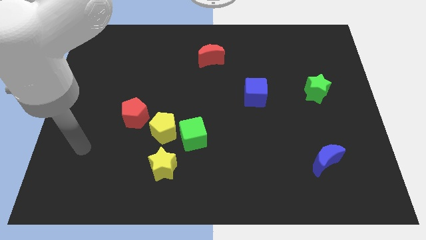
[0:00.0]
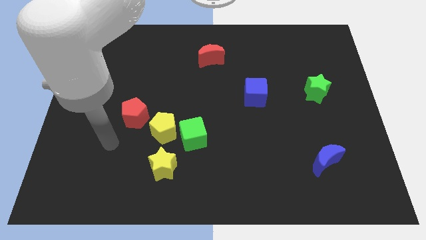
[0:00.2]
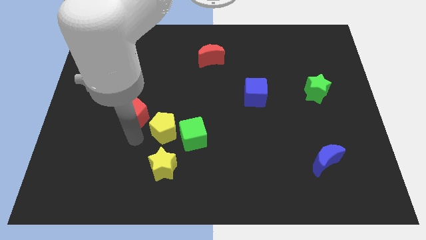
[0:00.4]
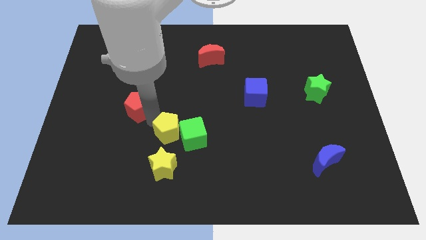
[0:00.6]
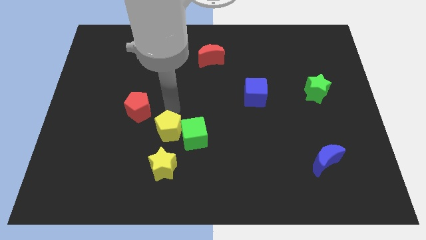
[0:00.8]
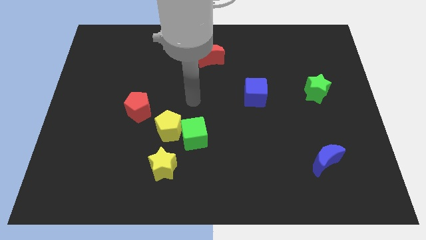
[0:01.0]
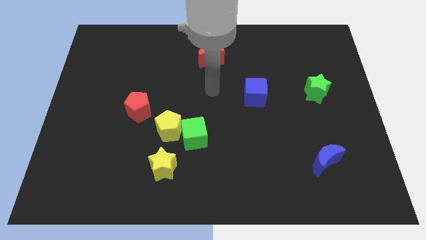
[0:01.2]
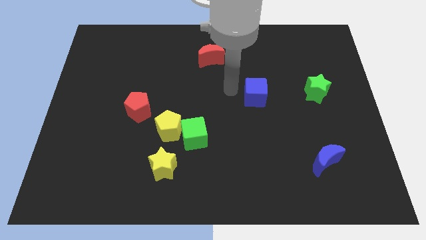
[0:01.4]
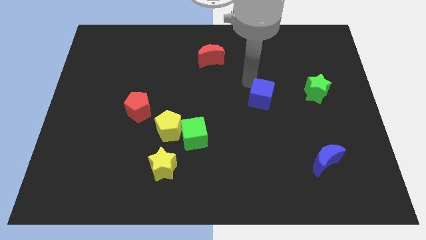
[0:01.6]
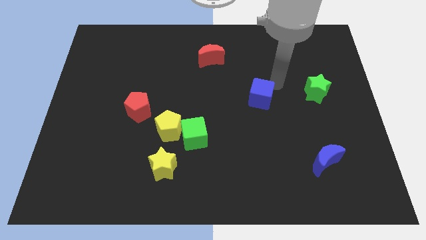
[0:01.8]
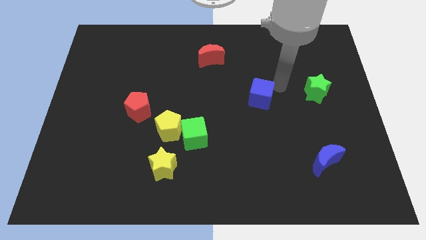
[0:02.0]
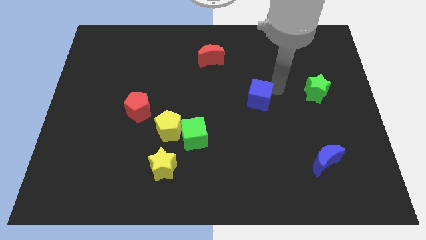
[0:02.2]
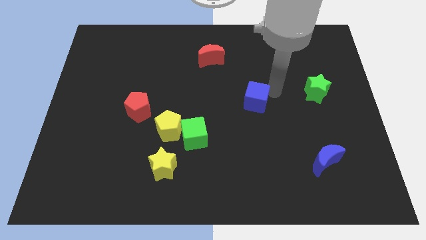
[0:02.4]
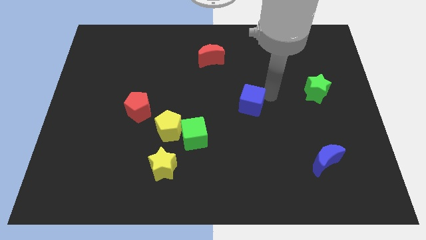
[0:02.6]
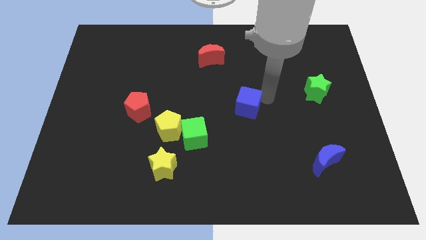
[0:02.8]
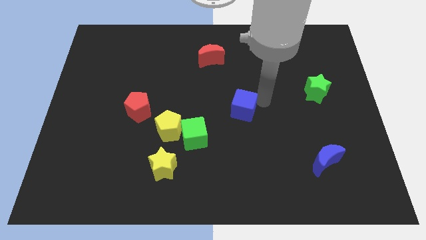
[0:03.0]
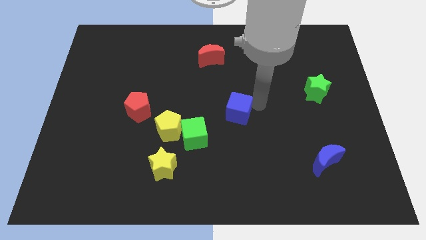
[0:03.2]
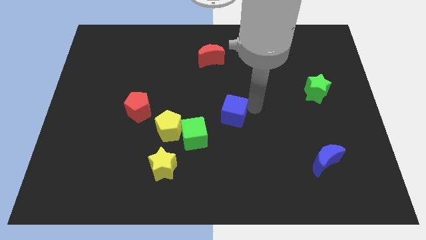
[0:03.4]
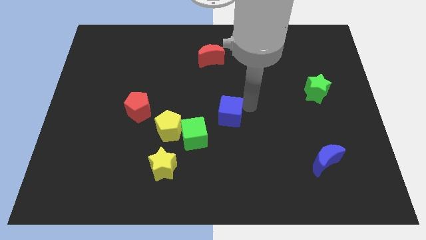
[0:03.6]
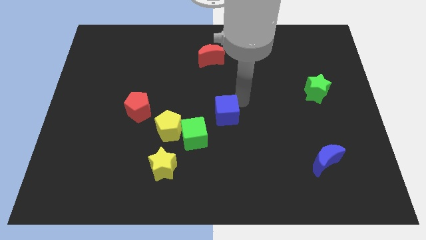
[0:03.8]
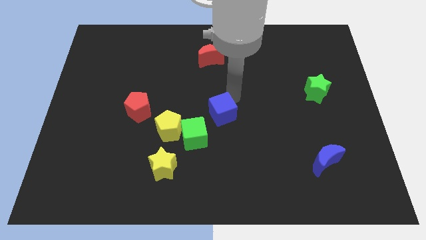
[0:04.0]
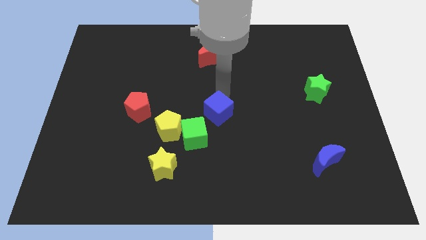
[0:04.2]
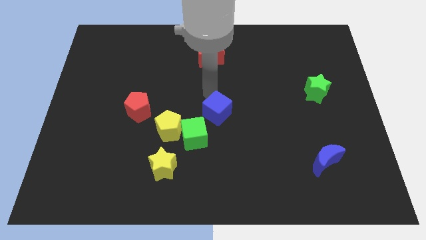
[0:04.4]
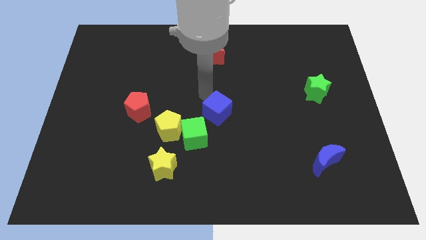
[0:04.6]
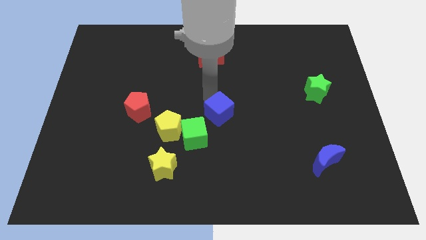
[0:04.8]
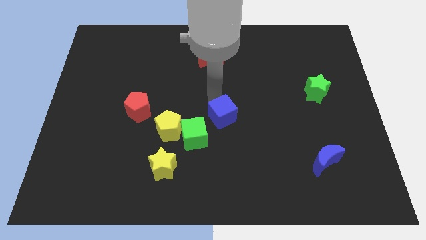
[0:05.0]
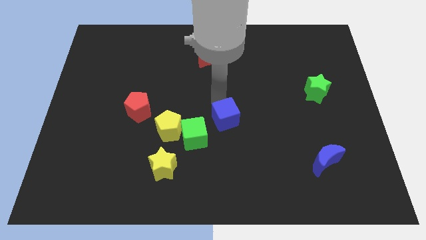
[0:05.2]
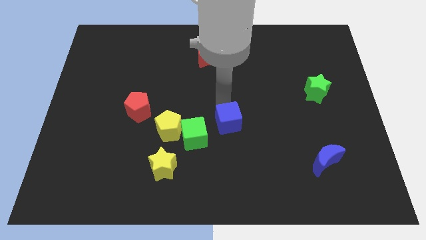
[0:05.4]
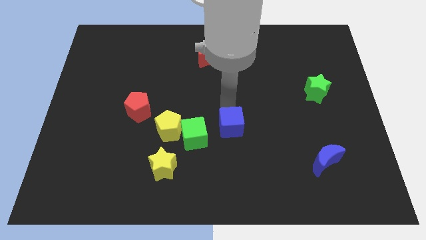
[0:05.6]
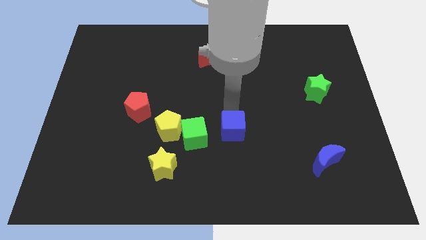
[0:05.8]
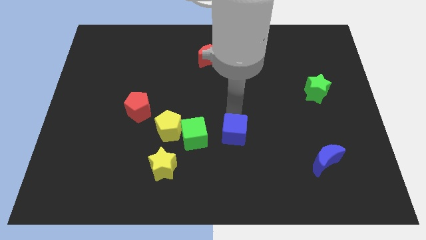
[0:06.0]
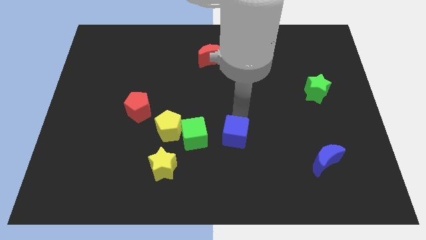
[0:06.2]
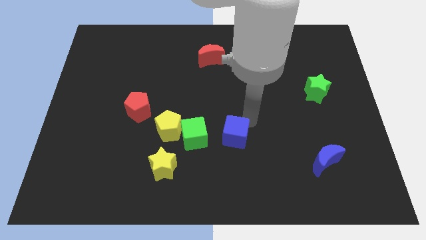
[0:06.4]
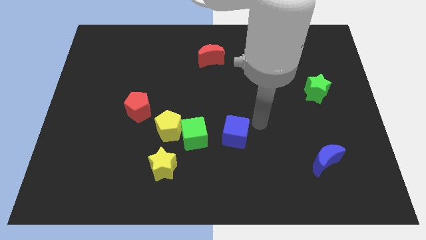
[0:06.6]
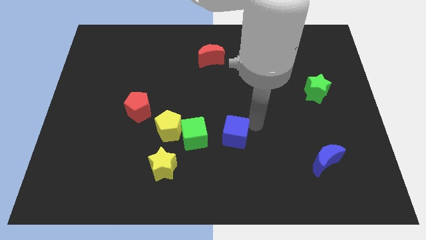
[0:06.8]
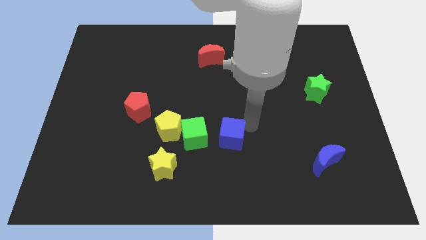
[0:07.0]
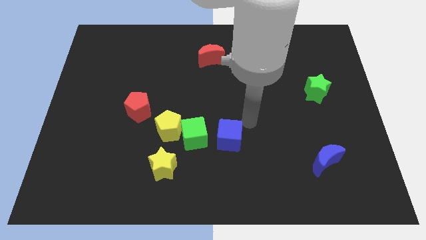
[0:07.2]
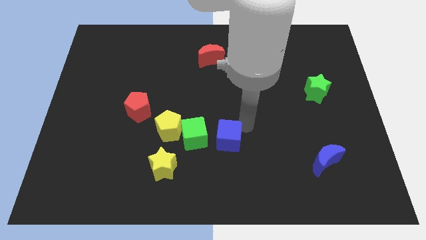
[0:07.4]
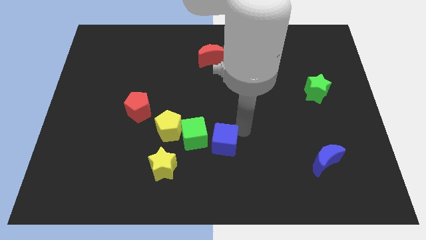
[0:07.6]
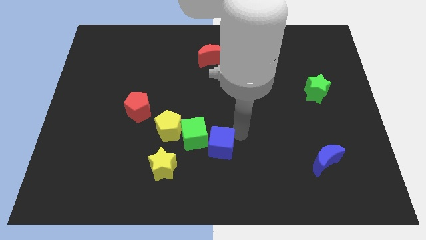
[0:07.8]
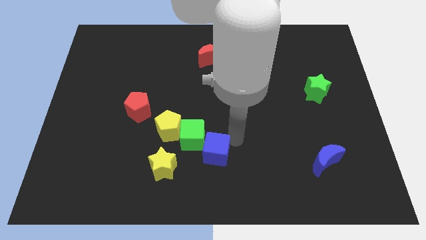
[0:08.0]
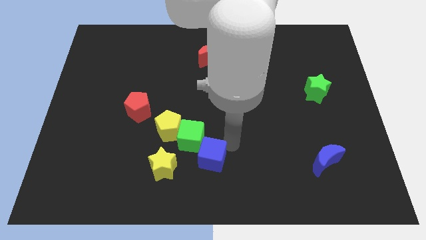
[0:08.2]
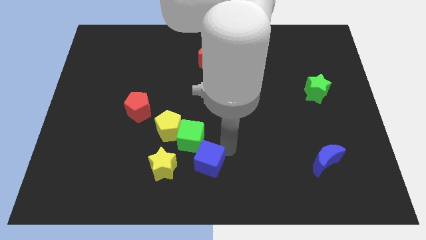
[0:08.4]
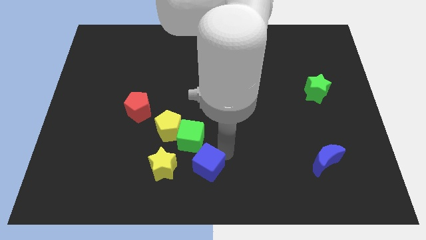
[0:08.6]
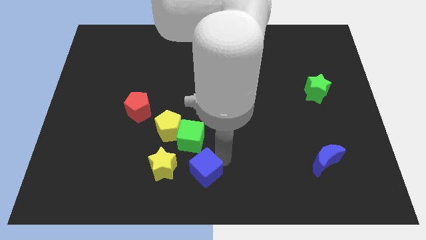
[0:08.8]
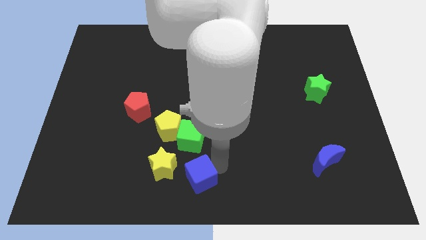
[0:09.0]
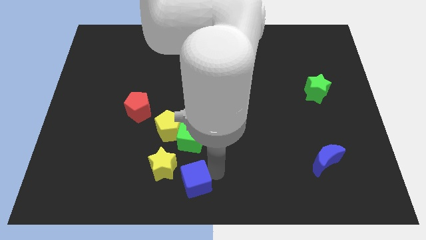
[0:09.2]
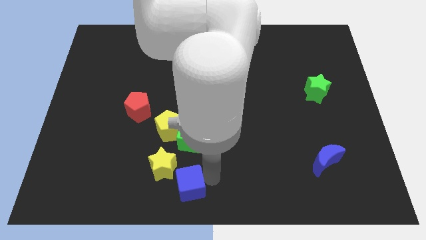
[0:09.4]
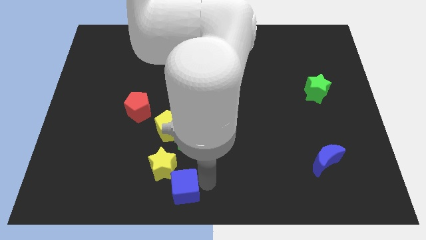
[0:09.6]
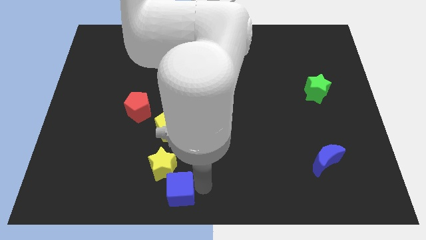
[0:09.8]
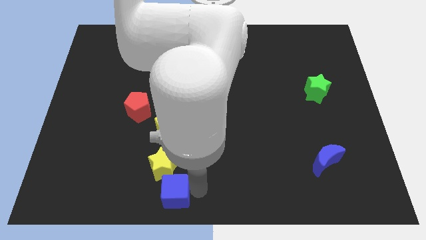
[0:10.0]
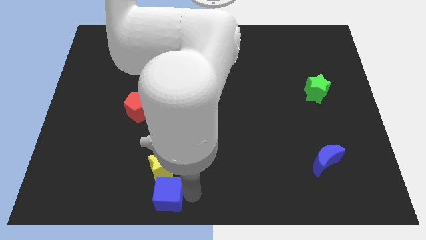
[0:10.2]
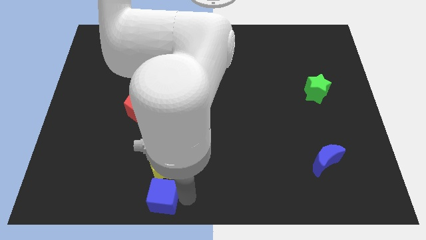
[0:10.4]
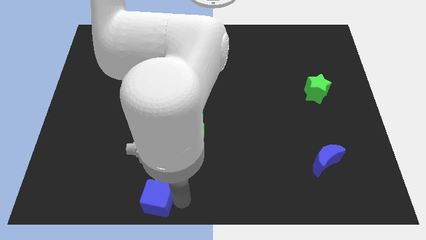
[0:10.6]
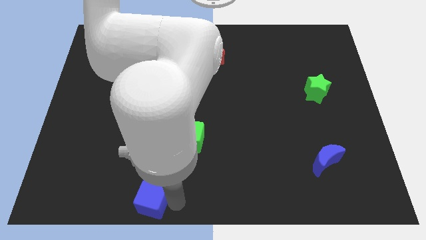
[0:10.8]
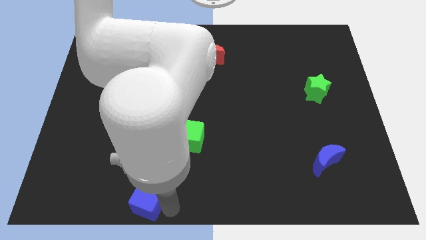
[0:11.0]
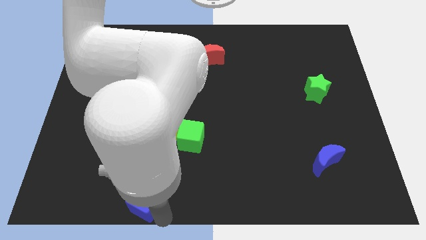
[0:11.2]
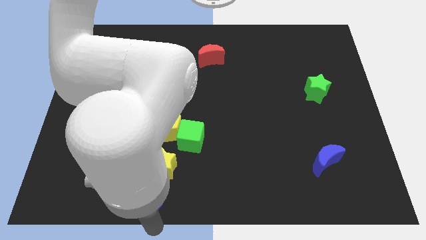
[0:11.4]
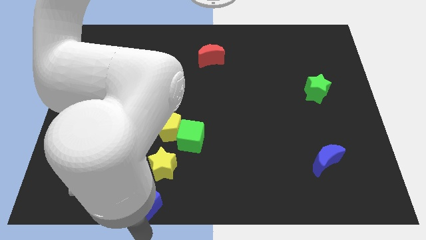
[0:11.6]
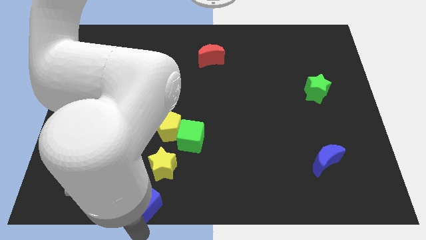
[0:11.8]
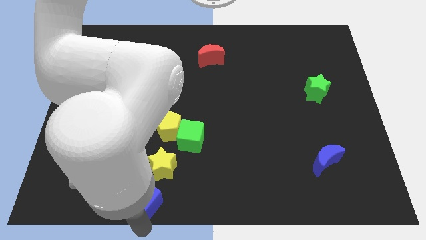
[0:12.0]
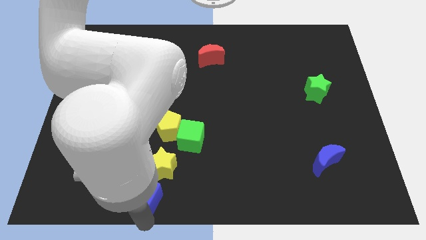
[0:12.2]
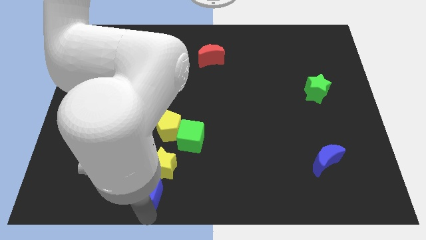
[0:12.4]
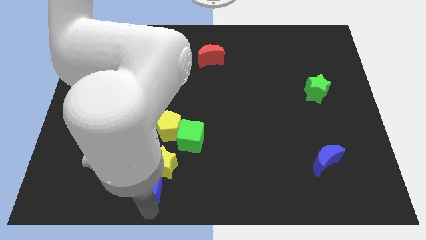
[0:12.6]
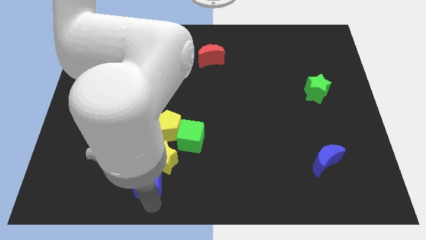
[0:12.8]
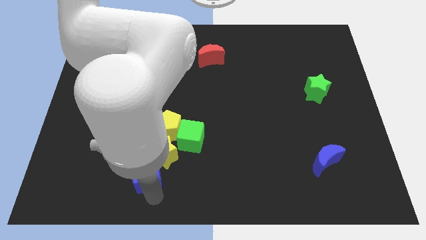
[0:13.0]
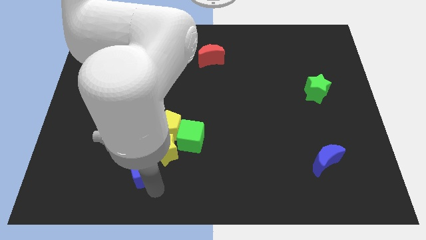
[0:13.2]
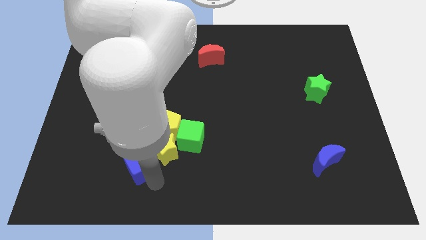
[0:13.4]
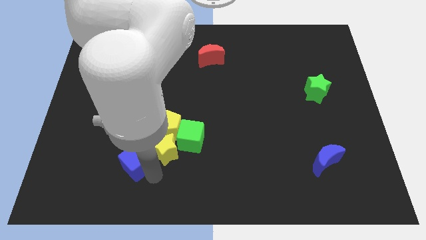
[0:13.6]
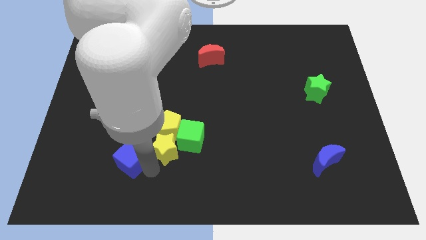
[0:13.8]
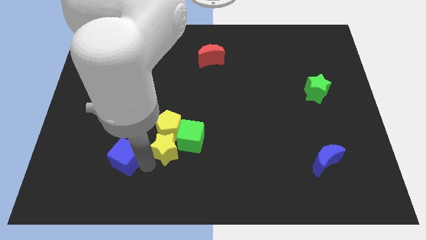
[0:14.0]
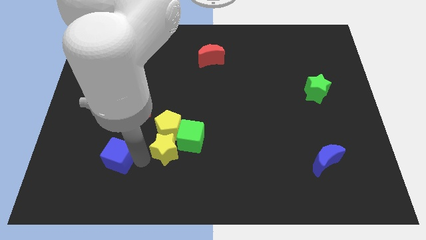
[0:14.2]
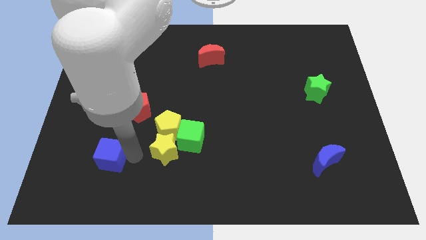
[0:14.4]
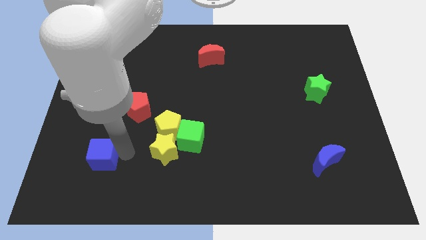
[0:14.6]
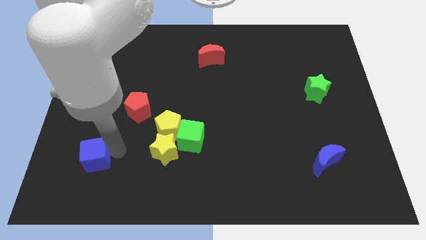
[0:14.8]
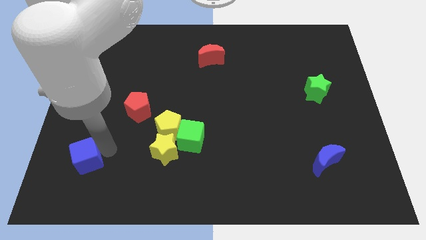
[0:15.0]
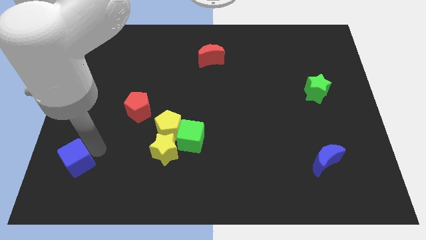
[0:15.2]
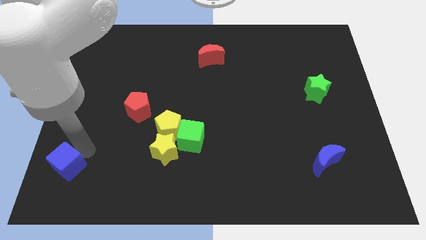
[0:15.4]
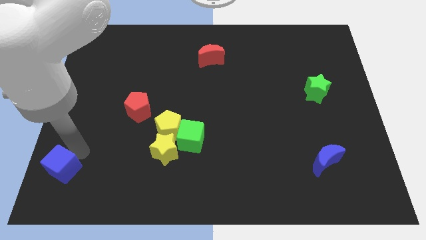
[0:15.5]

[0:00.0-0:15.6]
move the blue cube to the bottom left corner
